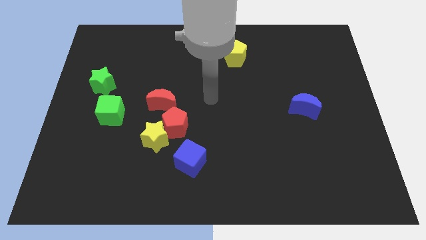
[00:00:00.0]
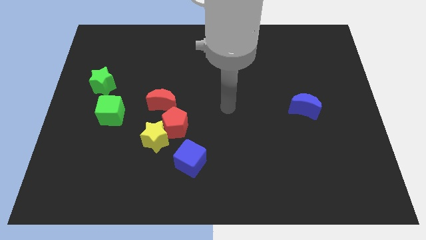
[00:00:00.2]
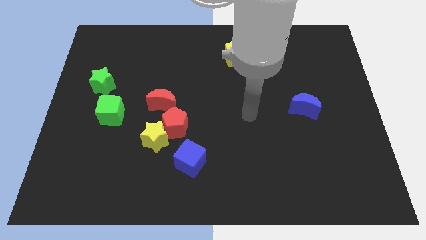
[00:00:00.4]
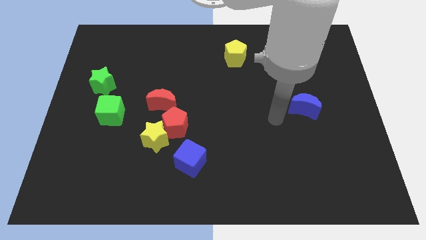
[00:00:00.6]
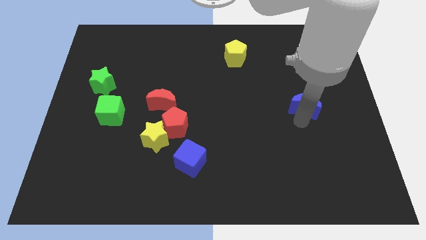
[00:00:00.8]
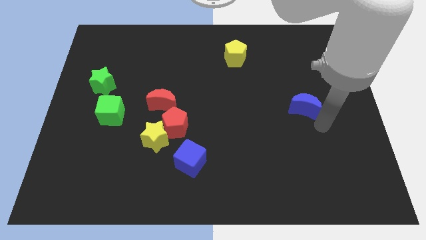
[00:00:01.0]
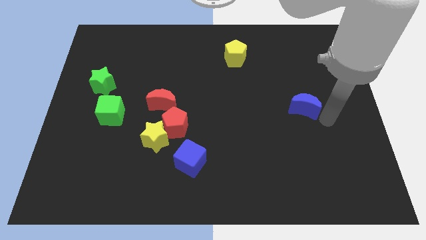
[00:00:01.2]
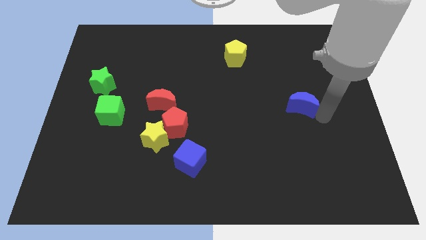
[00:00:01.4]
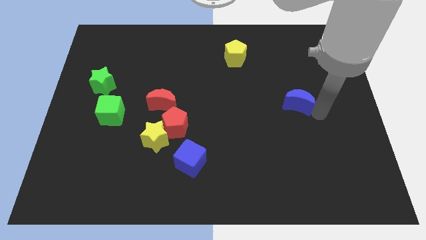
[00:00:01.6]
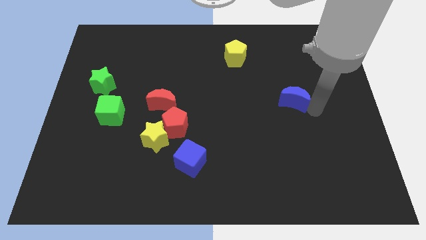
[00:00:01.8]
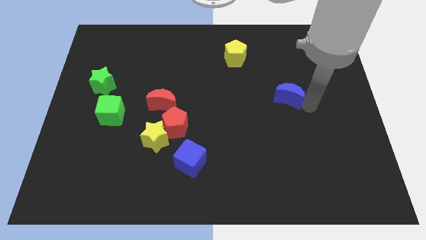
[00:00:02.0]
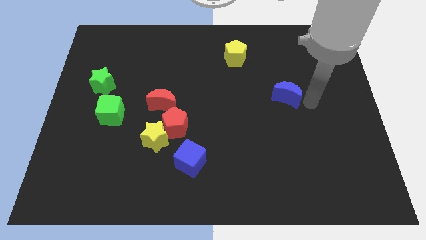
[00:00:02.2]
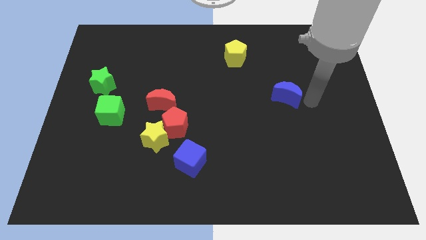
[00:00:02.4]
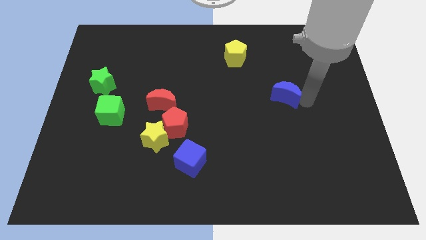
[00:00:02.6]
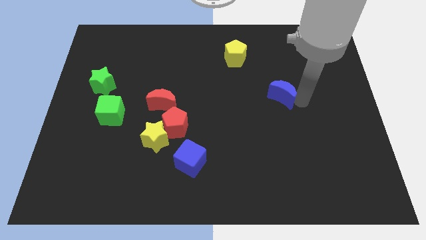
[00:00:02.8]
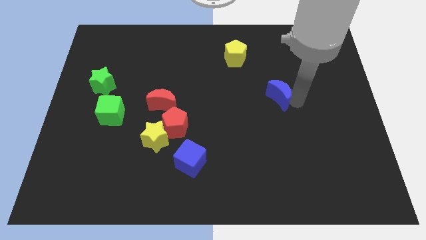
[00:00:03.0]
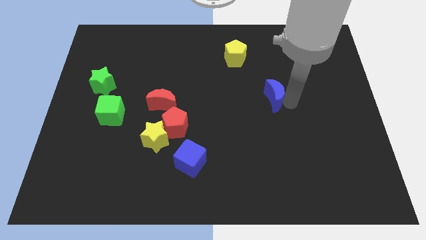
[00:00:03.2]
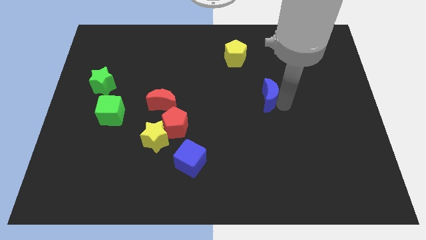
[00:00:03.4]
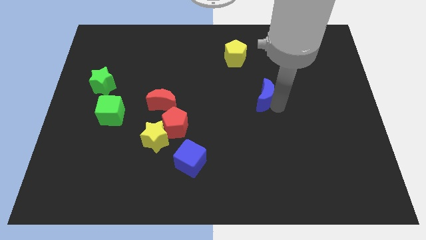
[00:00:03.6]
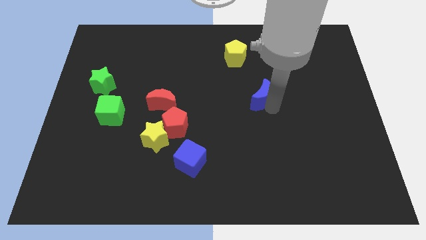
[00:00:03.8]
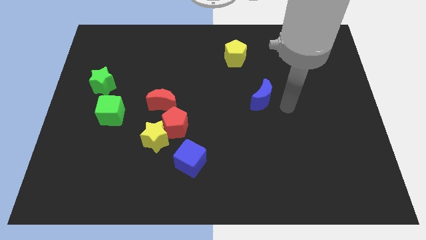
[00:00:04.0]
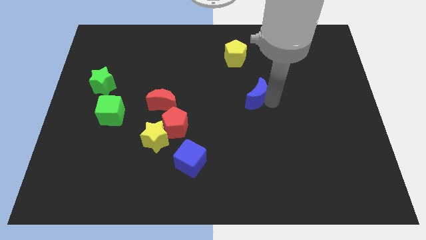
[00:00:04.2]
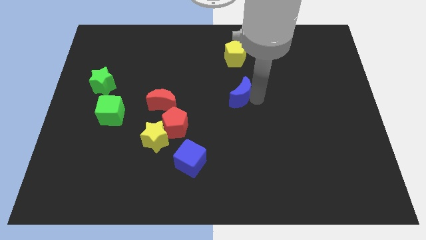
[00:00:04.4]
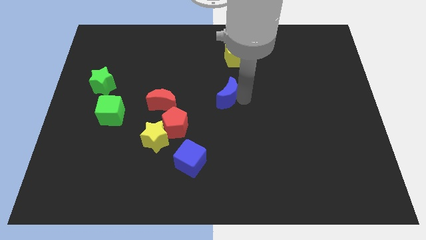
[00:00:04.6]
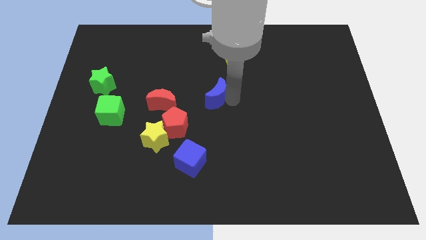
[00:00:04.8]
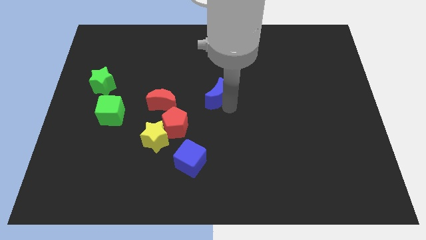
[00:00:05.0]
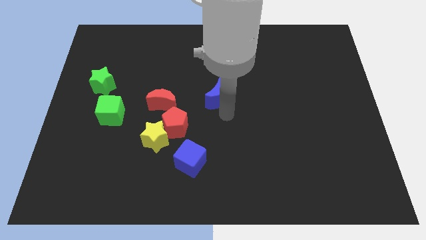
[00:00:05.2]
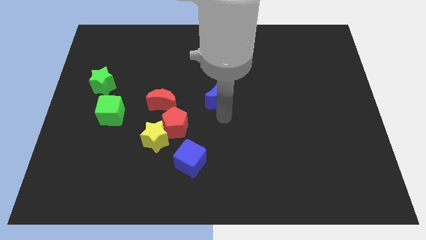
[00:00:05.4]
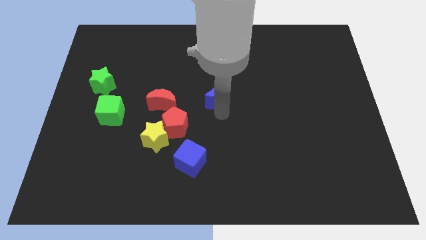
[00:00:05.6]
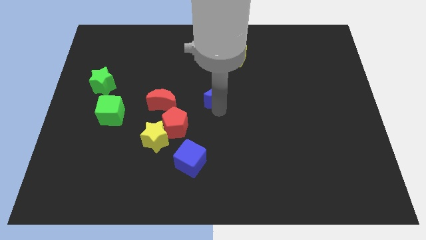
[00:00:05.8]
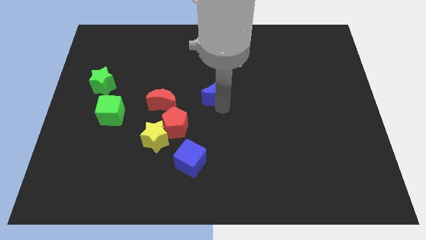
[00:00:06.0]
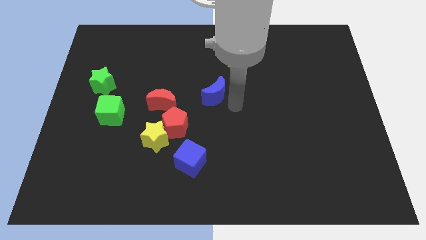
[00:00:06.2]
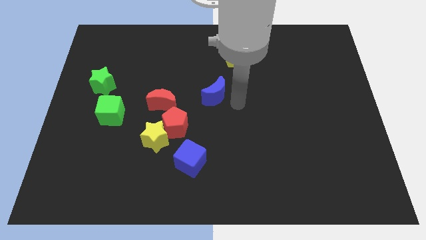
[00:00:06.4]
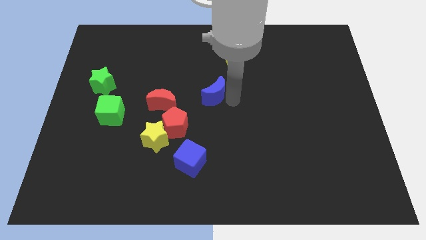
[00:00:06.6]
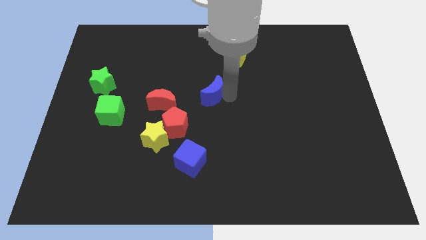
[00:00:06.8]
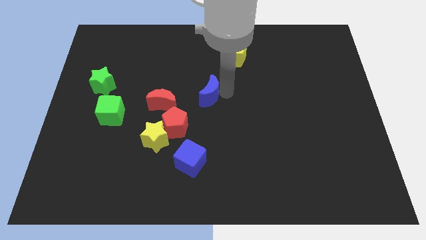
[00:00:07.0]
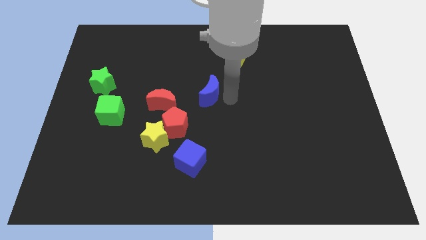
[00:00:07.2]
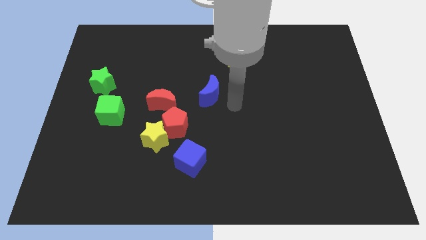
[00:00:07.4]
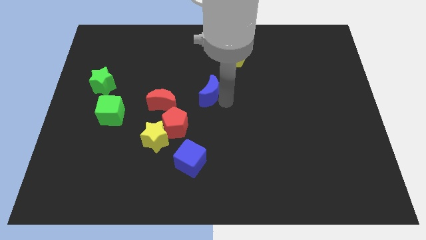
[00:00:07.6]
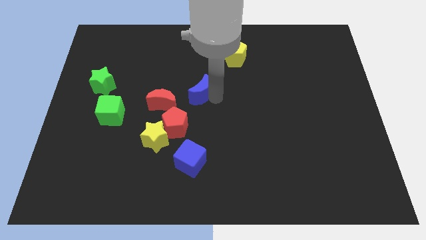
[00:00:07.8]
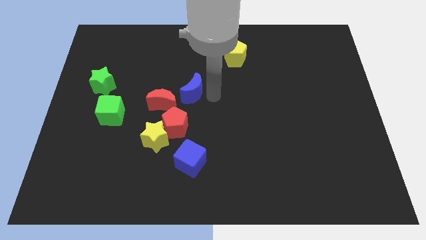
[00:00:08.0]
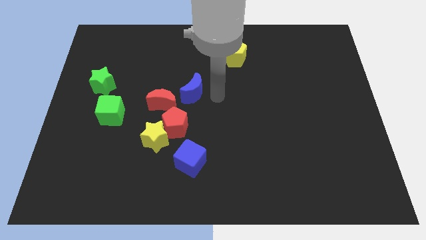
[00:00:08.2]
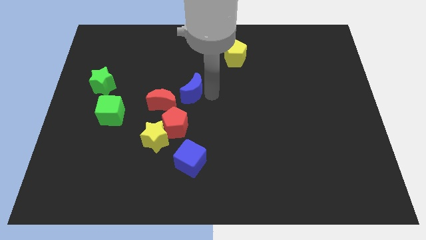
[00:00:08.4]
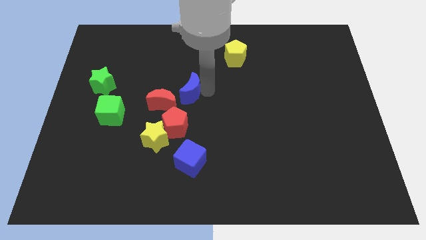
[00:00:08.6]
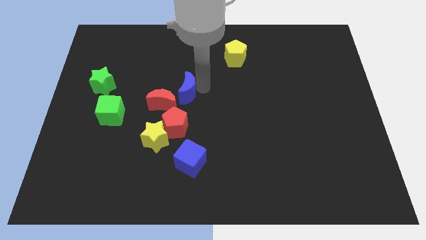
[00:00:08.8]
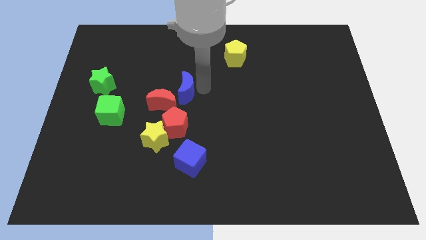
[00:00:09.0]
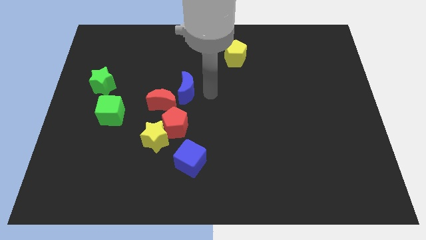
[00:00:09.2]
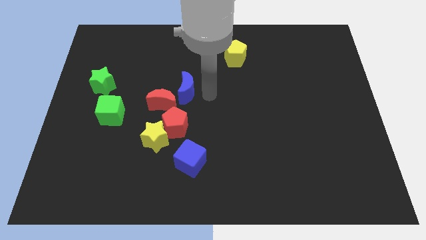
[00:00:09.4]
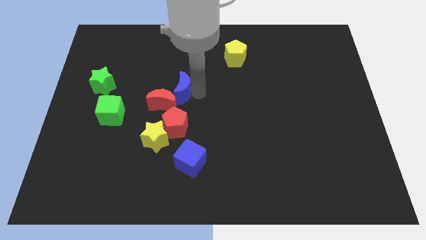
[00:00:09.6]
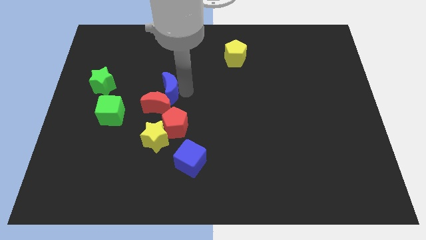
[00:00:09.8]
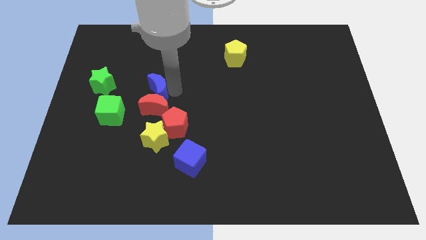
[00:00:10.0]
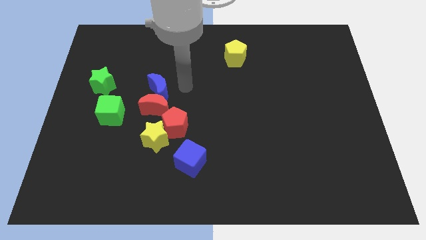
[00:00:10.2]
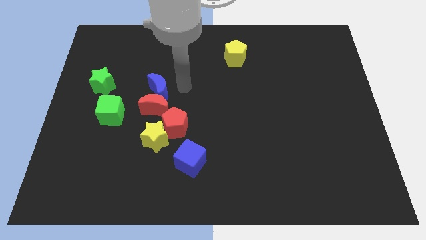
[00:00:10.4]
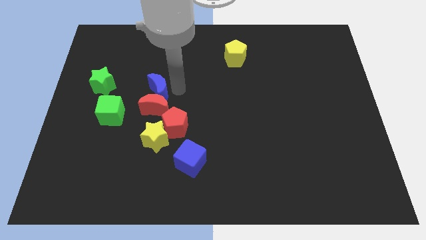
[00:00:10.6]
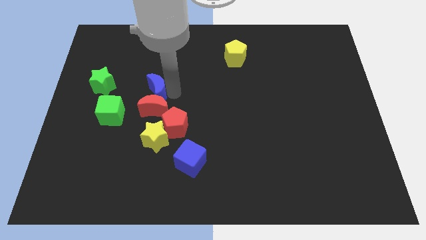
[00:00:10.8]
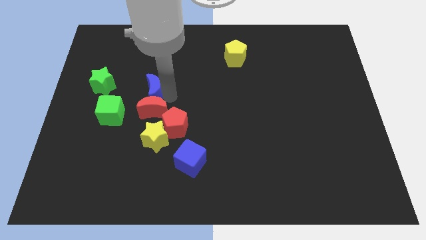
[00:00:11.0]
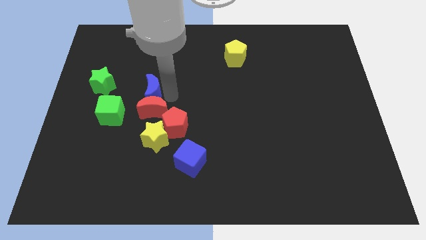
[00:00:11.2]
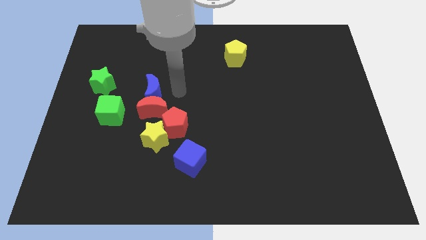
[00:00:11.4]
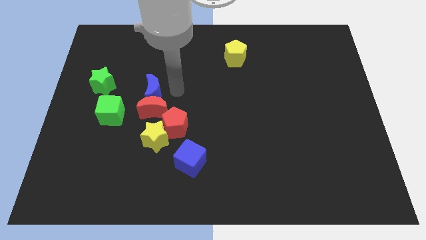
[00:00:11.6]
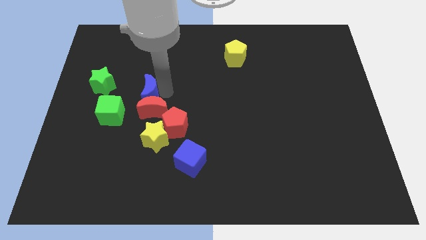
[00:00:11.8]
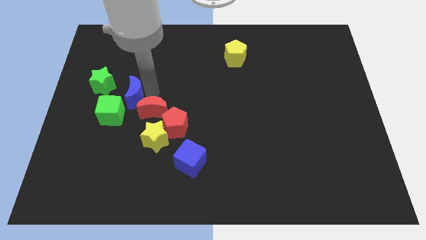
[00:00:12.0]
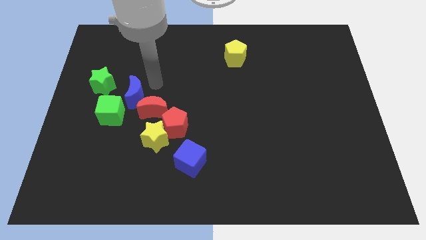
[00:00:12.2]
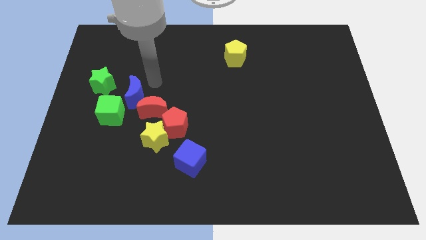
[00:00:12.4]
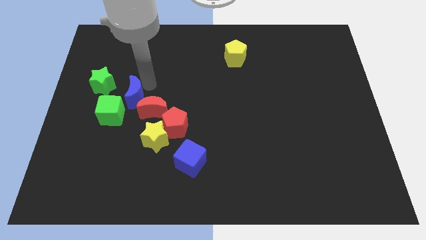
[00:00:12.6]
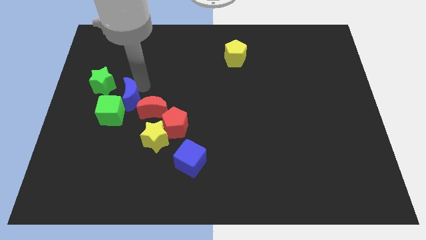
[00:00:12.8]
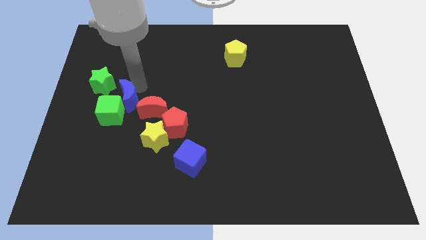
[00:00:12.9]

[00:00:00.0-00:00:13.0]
push the blue moon to the green cube

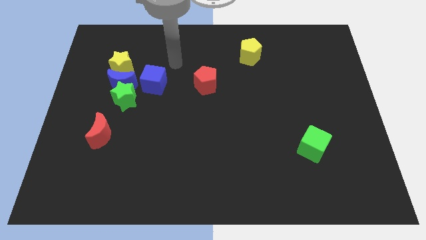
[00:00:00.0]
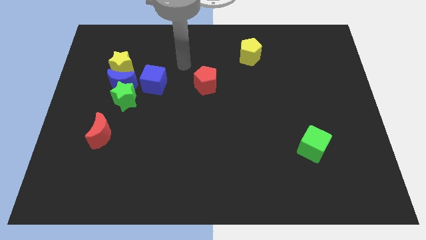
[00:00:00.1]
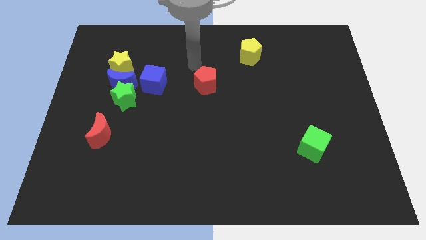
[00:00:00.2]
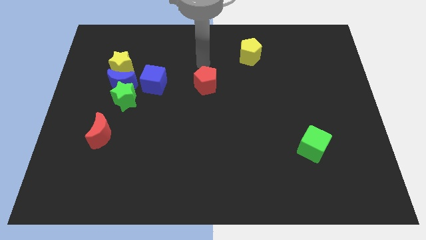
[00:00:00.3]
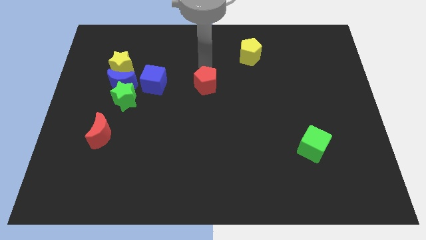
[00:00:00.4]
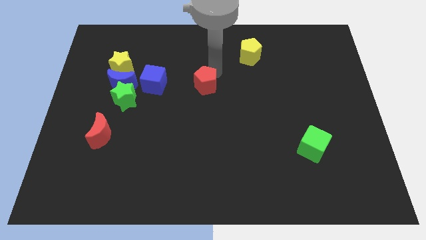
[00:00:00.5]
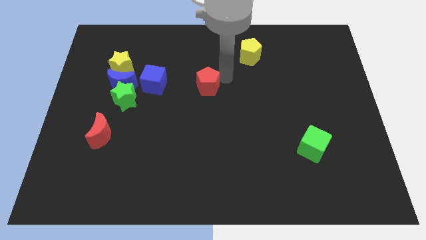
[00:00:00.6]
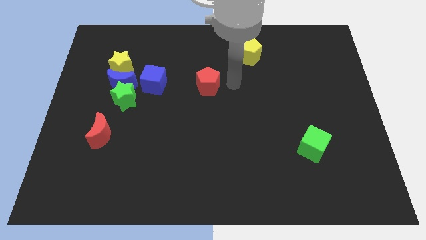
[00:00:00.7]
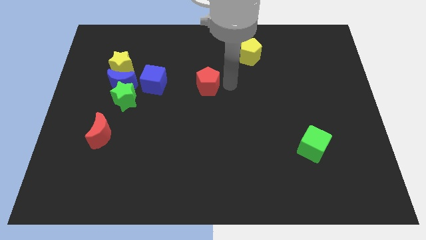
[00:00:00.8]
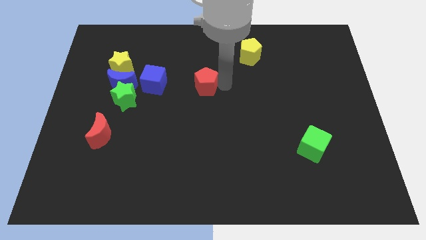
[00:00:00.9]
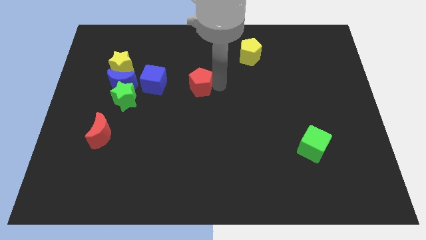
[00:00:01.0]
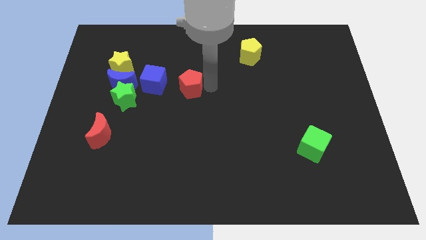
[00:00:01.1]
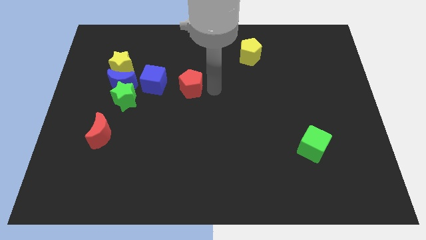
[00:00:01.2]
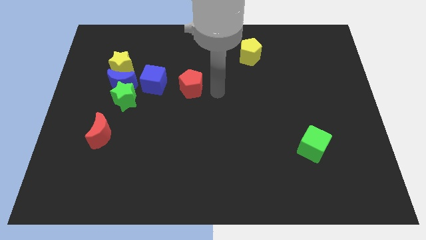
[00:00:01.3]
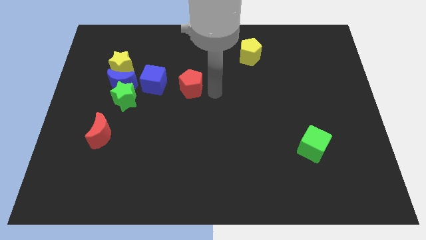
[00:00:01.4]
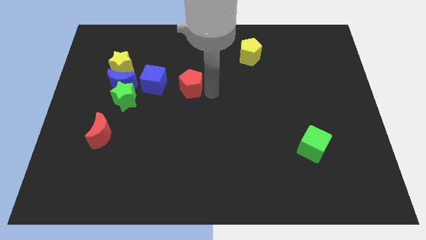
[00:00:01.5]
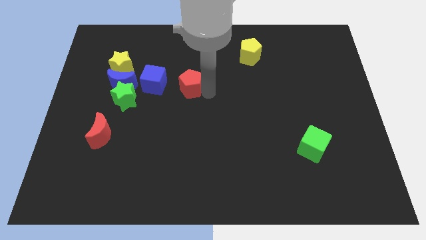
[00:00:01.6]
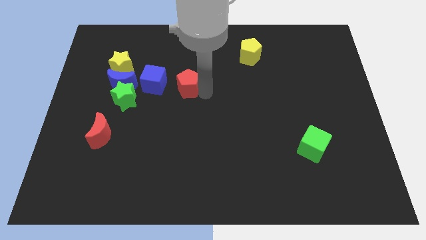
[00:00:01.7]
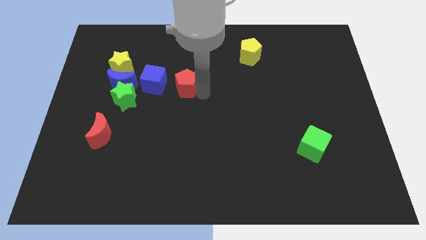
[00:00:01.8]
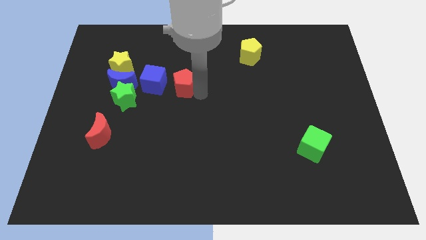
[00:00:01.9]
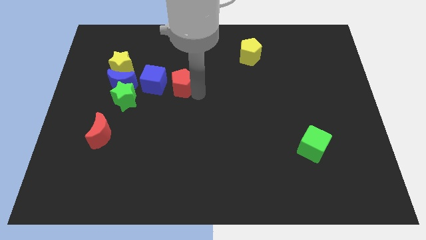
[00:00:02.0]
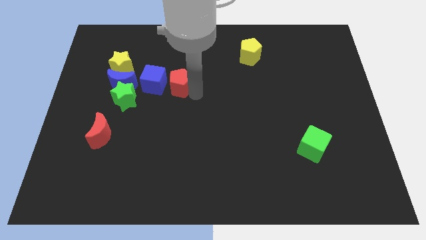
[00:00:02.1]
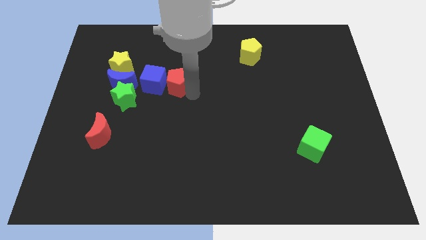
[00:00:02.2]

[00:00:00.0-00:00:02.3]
put the red pentagon towards the blue cube
